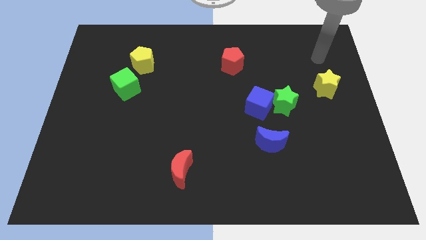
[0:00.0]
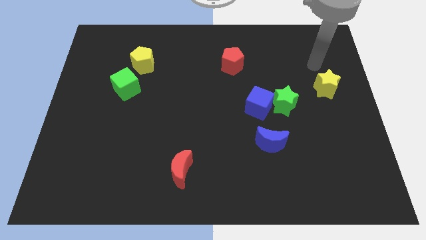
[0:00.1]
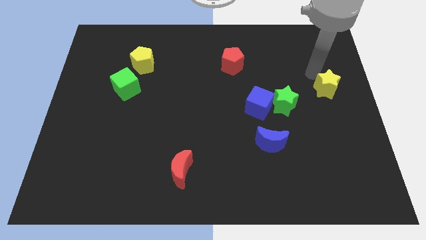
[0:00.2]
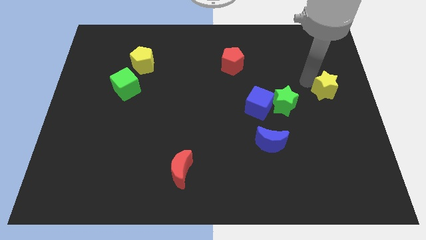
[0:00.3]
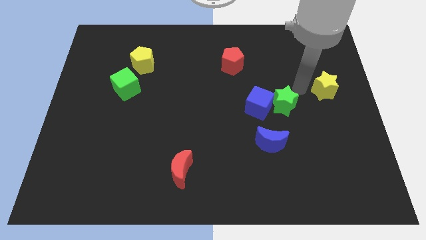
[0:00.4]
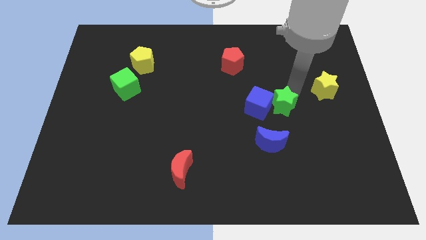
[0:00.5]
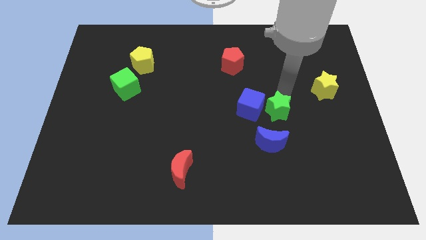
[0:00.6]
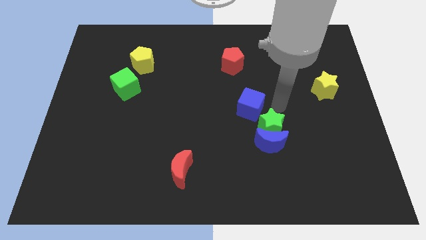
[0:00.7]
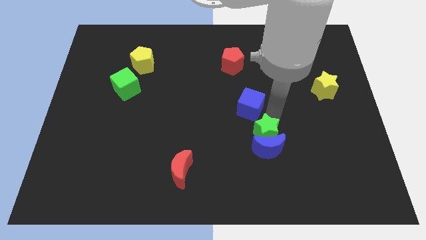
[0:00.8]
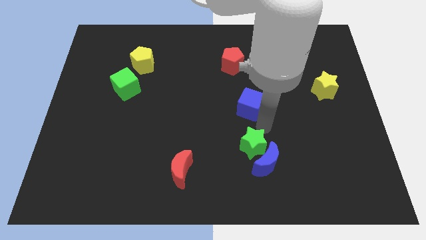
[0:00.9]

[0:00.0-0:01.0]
move the blue cube away from the green star

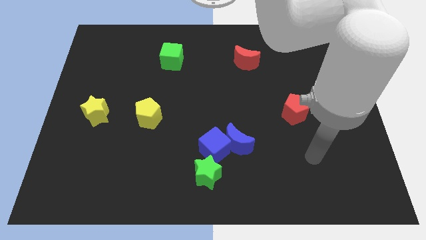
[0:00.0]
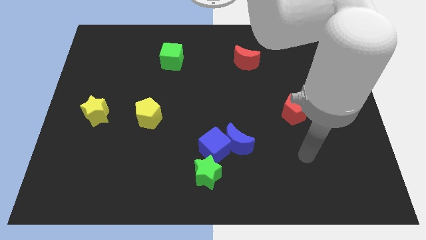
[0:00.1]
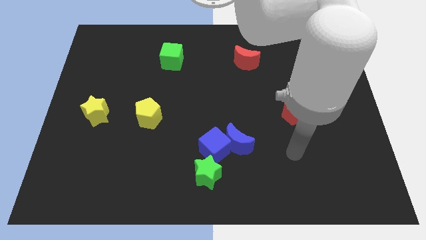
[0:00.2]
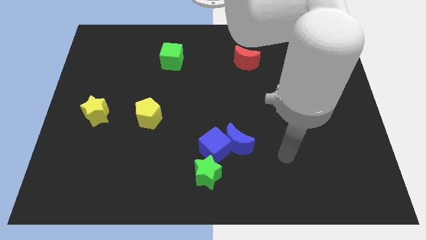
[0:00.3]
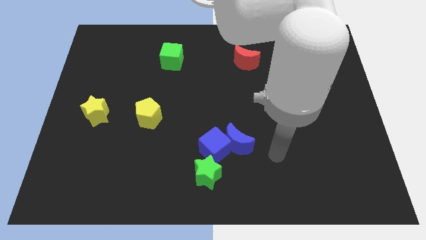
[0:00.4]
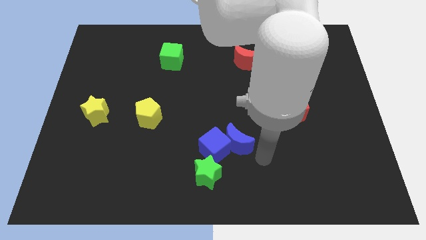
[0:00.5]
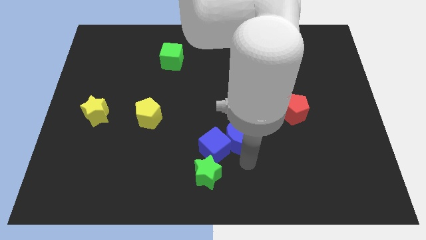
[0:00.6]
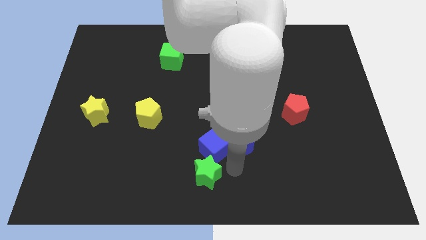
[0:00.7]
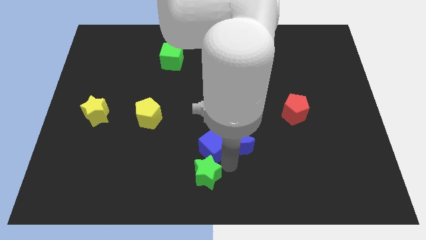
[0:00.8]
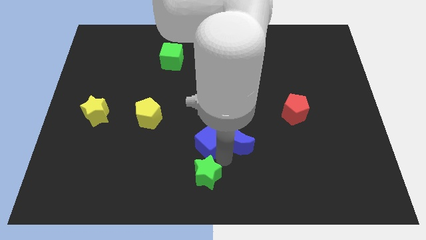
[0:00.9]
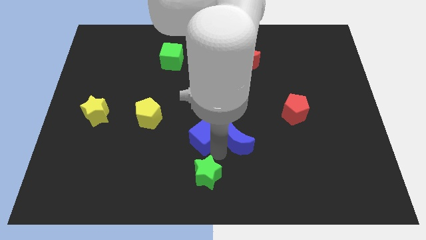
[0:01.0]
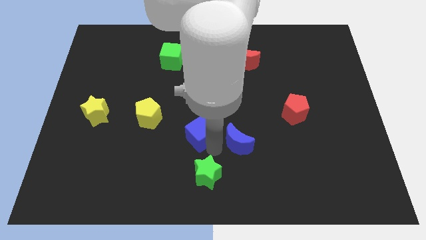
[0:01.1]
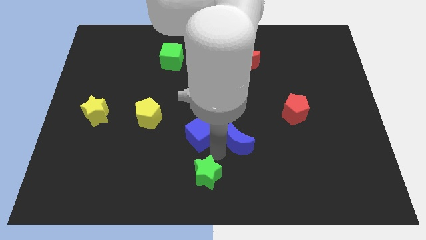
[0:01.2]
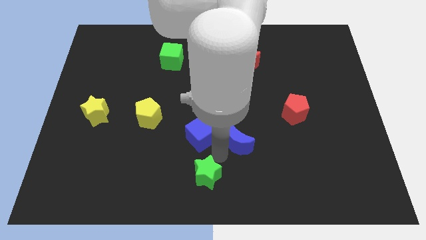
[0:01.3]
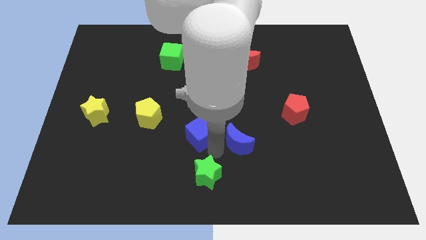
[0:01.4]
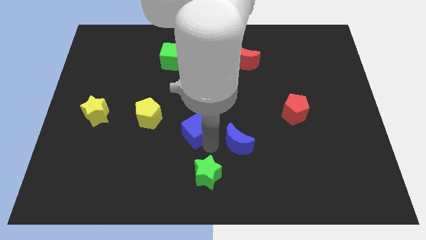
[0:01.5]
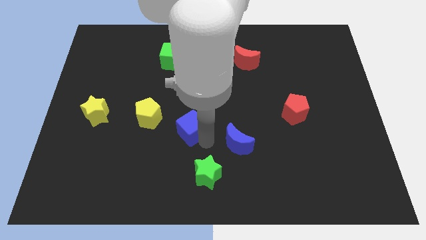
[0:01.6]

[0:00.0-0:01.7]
pull the blue cube apart from the blue moon and green star

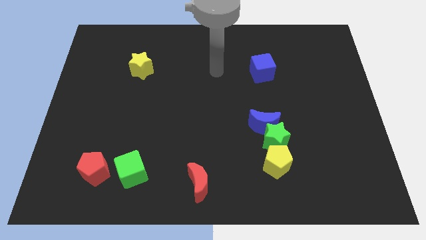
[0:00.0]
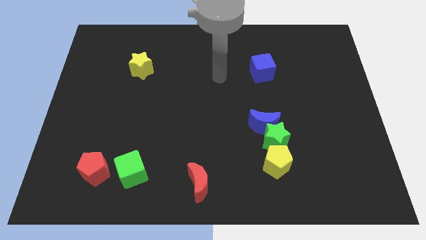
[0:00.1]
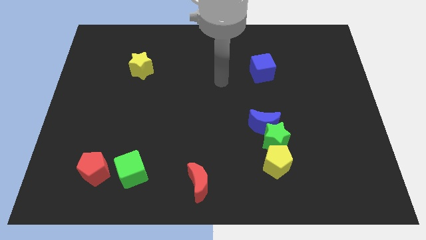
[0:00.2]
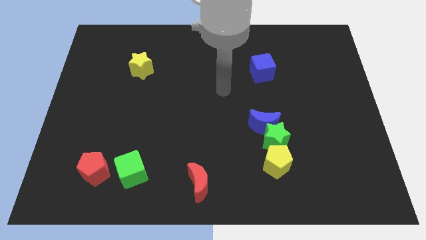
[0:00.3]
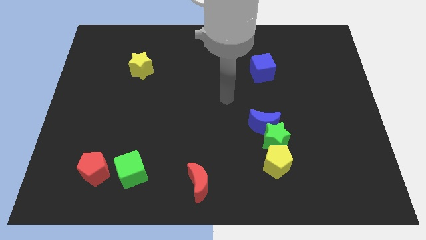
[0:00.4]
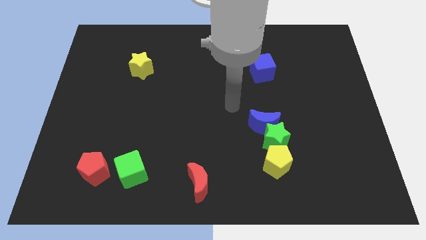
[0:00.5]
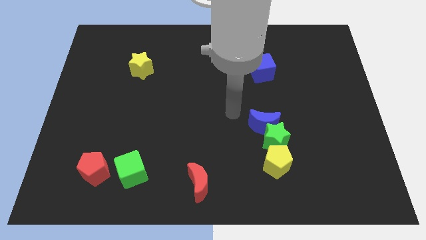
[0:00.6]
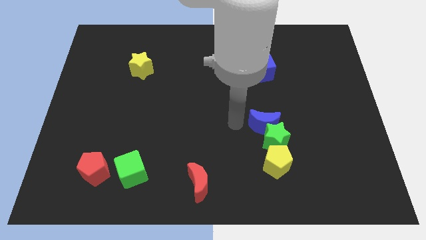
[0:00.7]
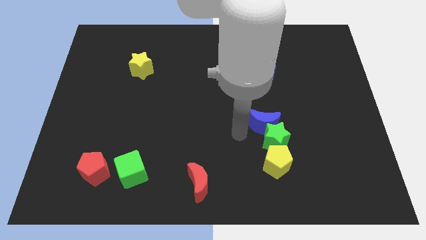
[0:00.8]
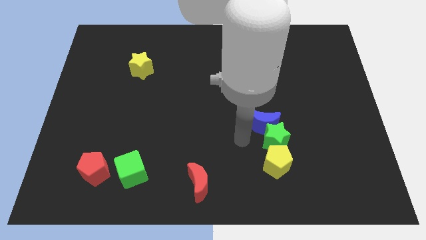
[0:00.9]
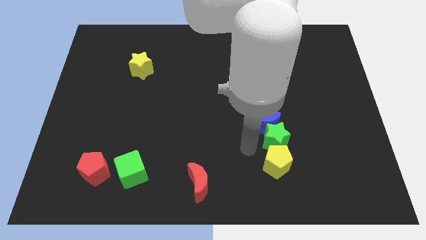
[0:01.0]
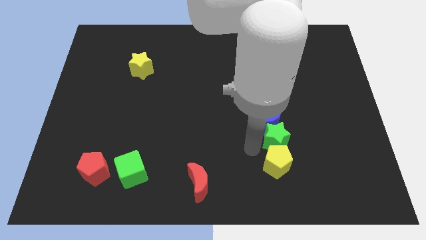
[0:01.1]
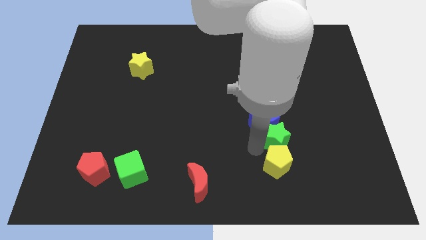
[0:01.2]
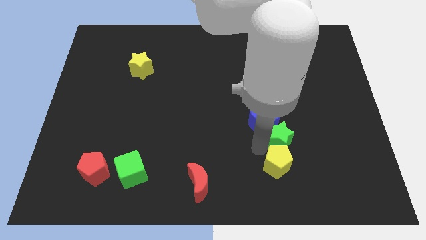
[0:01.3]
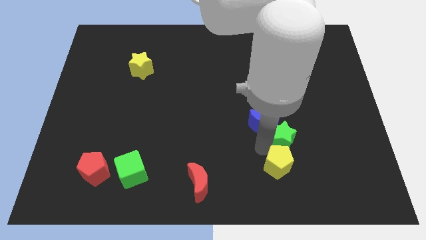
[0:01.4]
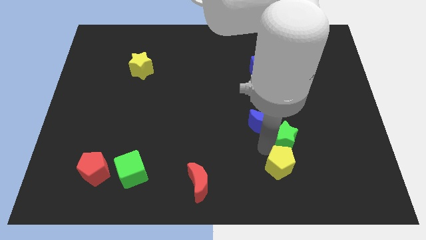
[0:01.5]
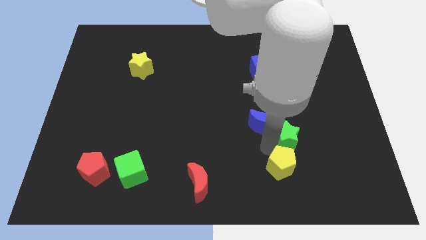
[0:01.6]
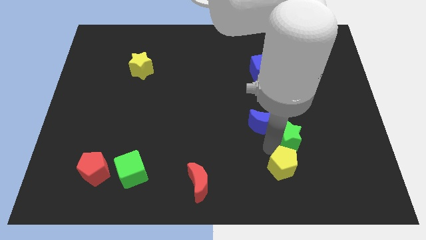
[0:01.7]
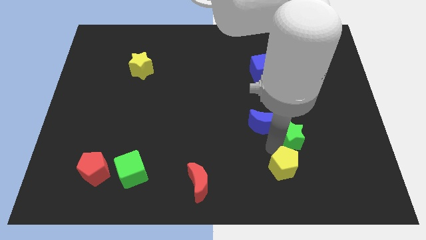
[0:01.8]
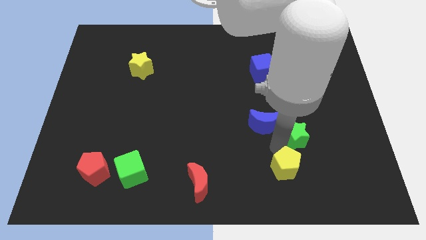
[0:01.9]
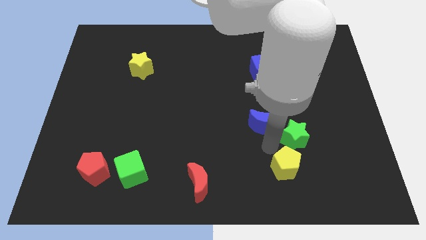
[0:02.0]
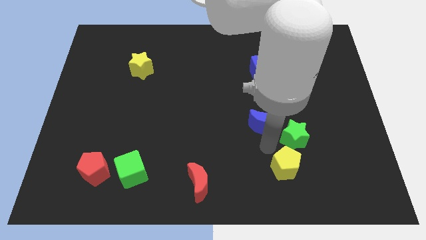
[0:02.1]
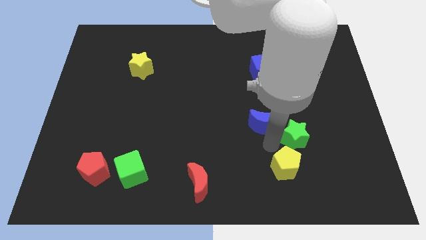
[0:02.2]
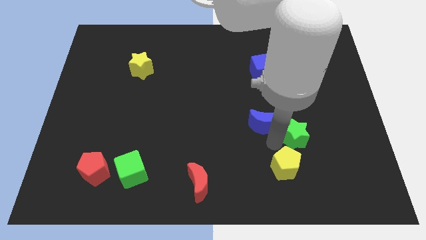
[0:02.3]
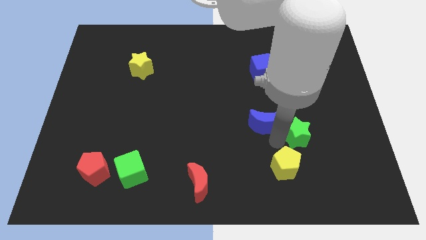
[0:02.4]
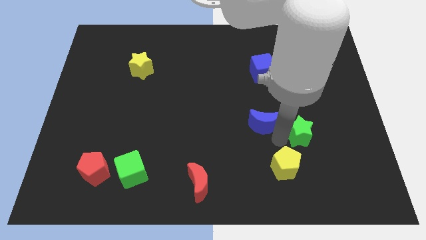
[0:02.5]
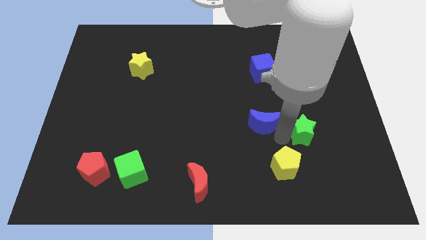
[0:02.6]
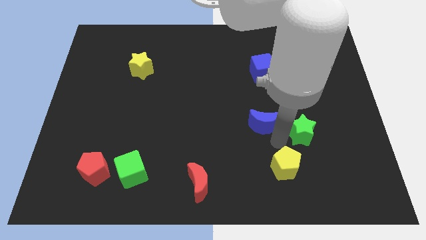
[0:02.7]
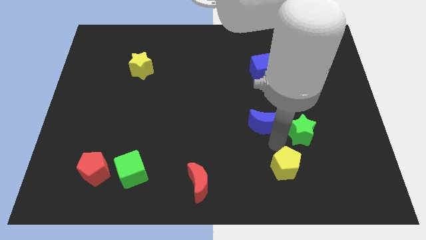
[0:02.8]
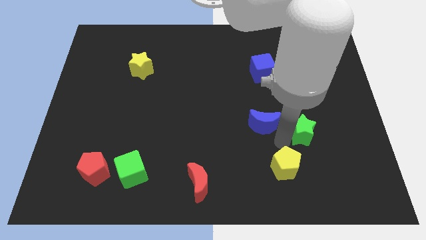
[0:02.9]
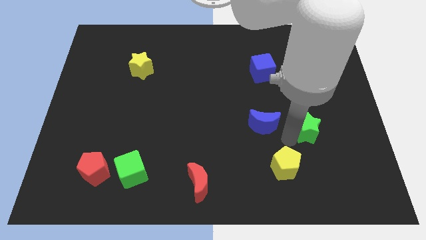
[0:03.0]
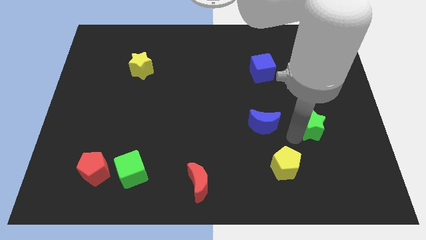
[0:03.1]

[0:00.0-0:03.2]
separate the green star from the blue moon and yellow pentagon

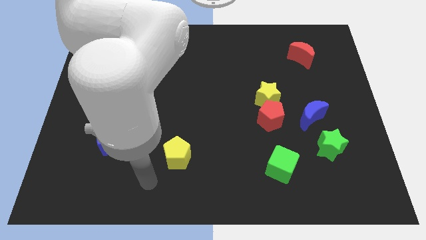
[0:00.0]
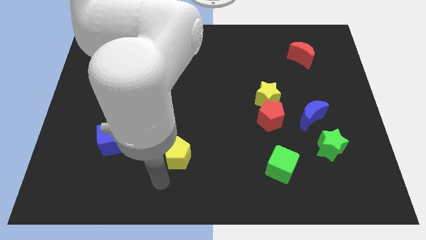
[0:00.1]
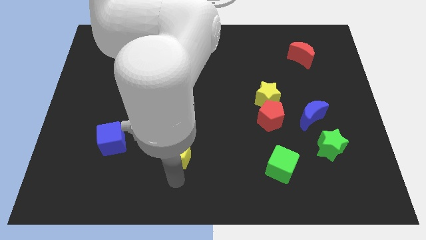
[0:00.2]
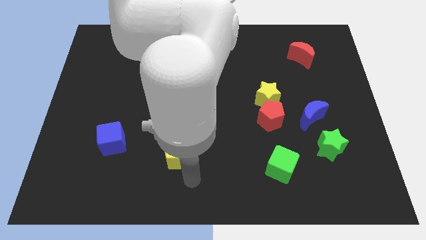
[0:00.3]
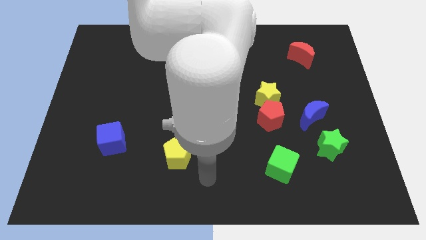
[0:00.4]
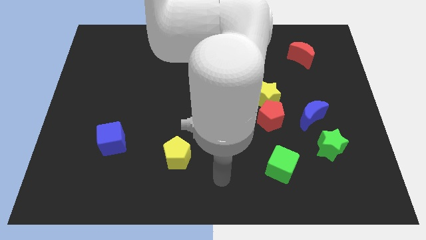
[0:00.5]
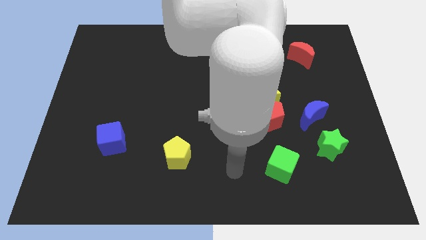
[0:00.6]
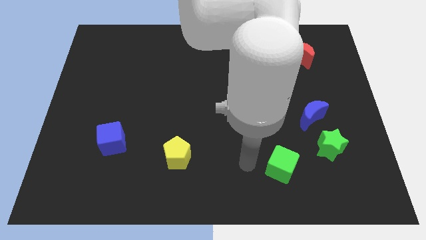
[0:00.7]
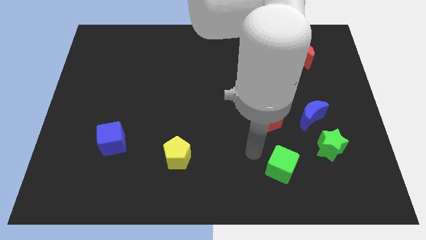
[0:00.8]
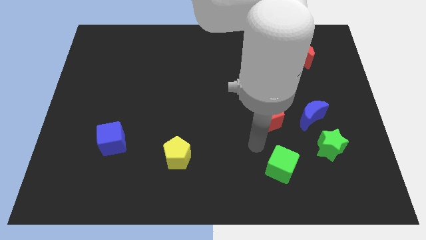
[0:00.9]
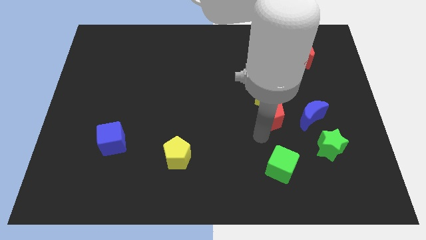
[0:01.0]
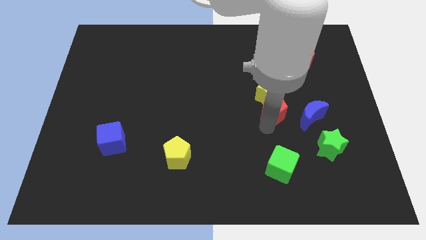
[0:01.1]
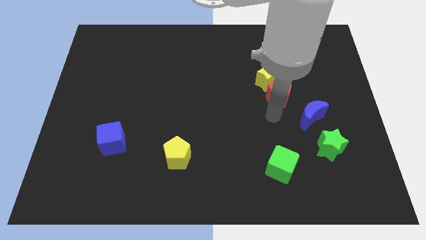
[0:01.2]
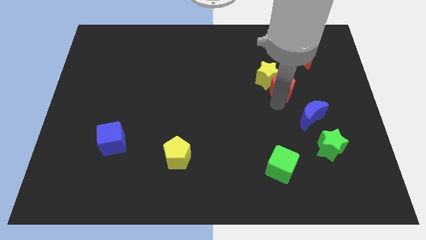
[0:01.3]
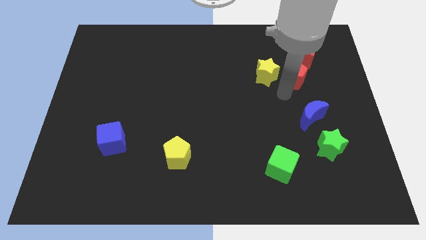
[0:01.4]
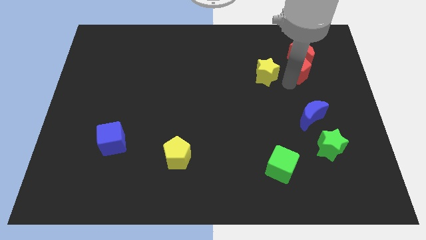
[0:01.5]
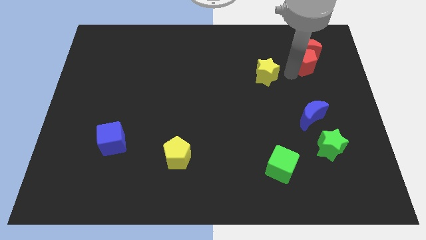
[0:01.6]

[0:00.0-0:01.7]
separate the yellow star from the red pentagon

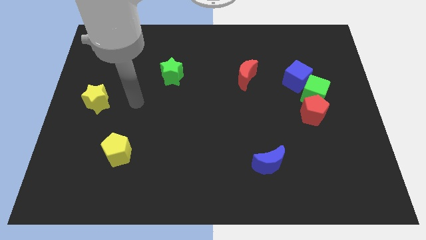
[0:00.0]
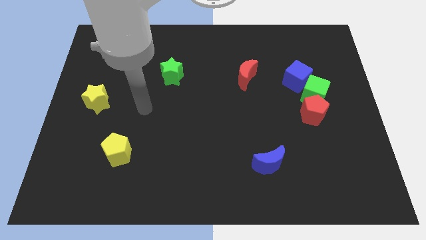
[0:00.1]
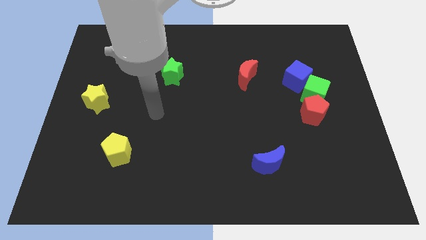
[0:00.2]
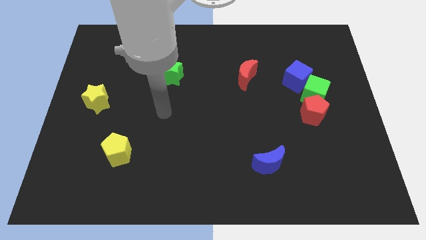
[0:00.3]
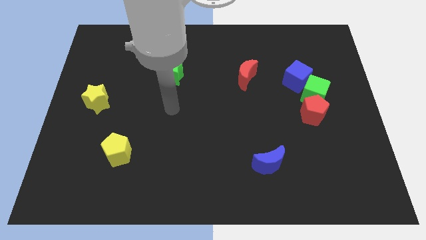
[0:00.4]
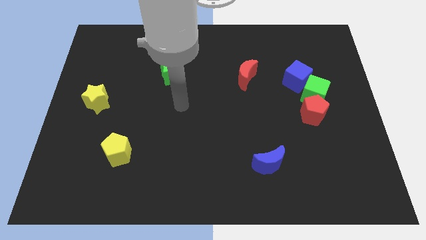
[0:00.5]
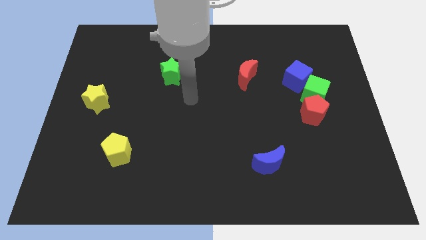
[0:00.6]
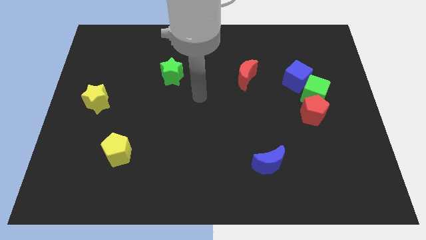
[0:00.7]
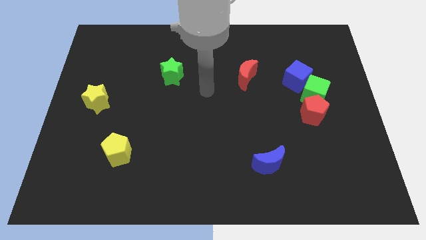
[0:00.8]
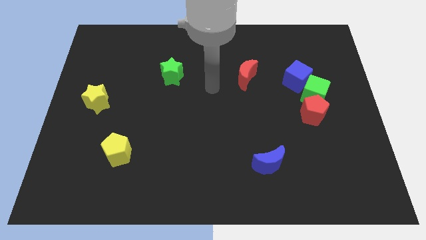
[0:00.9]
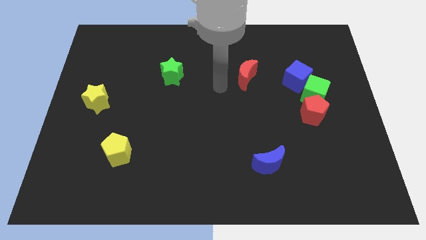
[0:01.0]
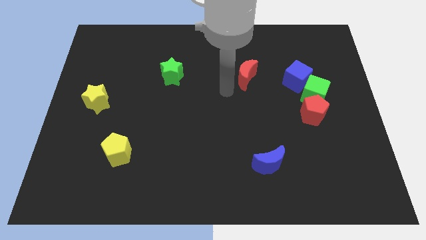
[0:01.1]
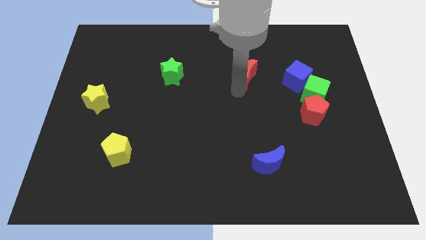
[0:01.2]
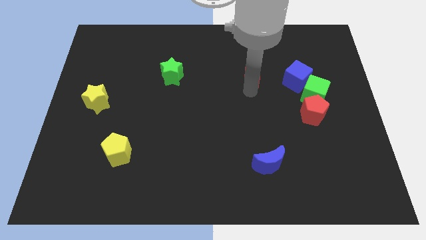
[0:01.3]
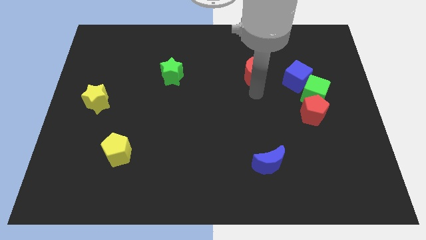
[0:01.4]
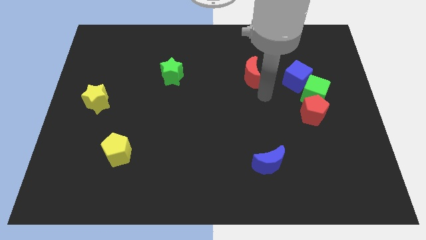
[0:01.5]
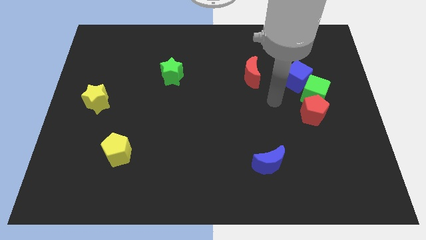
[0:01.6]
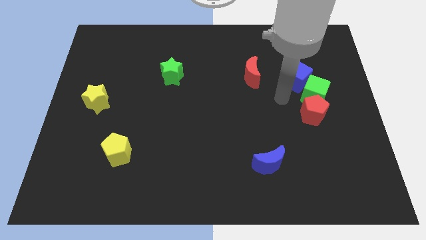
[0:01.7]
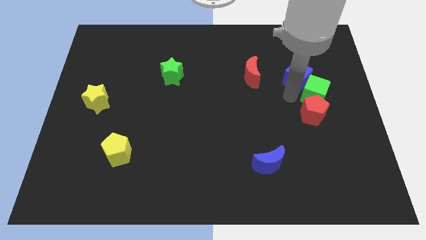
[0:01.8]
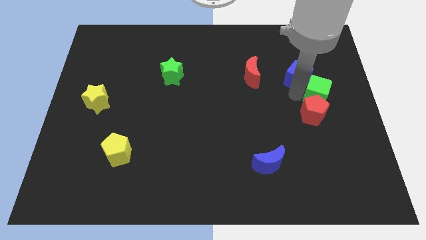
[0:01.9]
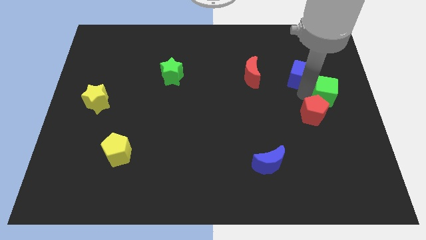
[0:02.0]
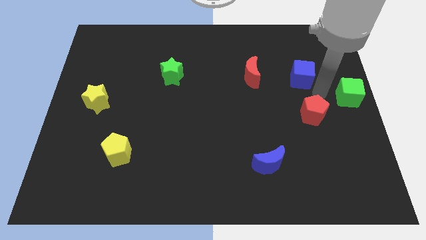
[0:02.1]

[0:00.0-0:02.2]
move the blue cube away from the green cube
